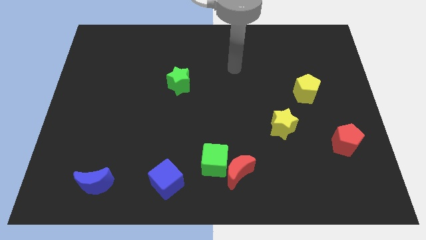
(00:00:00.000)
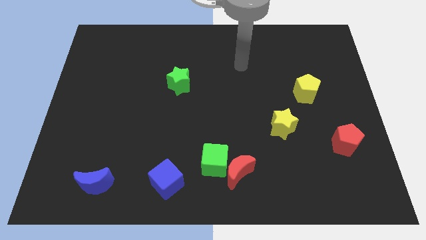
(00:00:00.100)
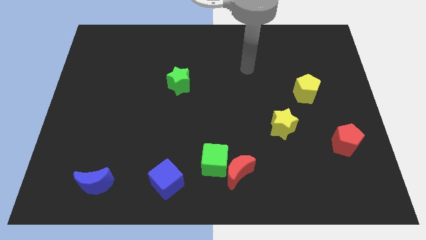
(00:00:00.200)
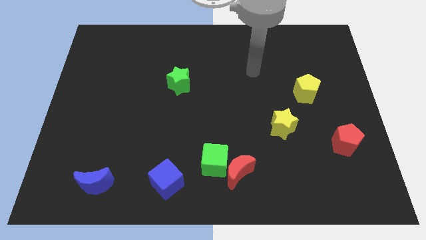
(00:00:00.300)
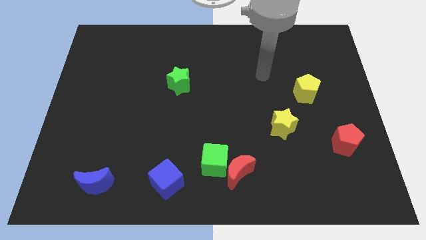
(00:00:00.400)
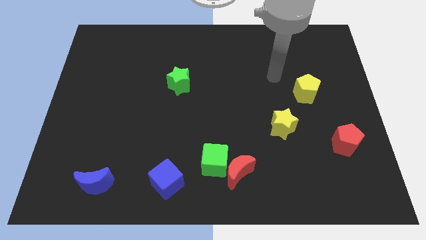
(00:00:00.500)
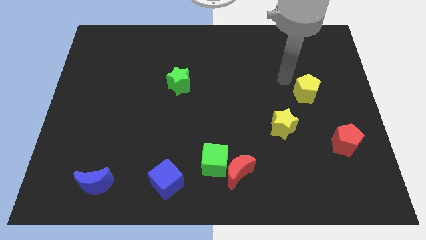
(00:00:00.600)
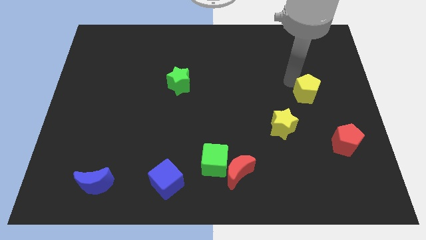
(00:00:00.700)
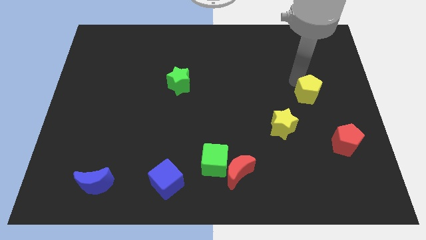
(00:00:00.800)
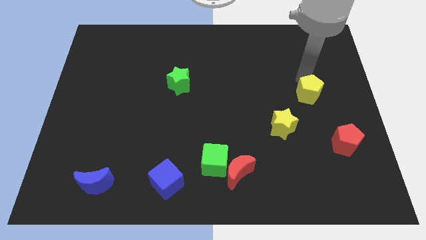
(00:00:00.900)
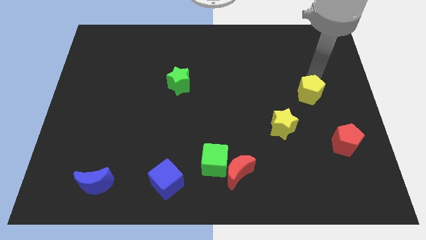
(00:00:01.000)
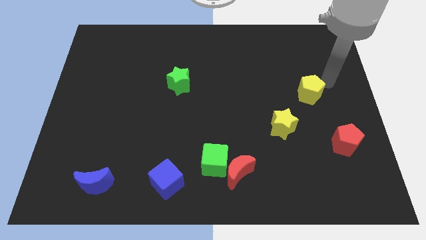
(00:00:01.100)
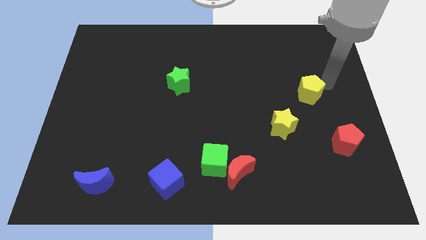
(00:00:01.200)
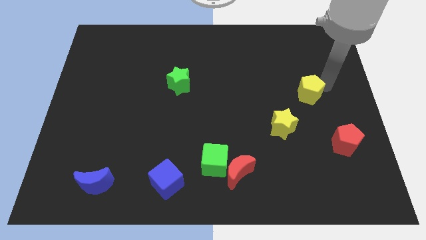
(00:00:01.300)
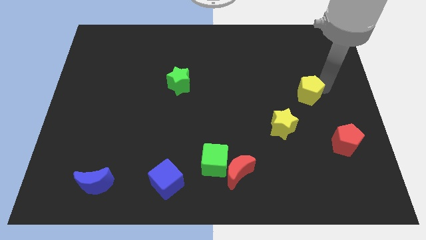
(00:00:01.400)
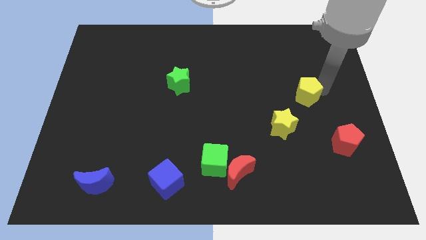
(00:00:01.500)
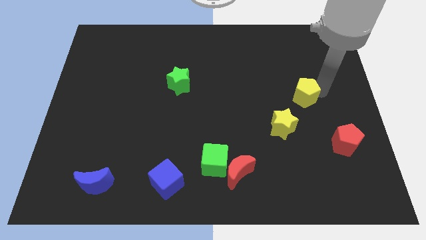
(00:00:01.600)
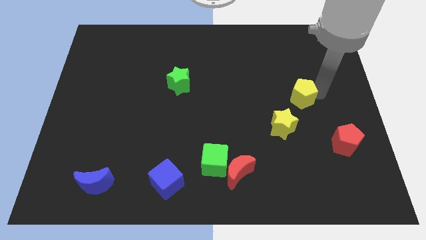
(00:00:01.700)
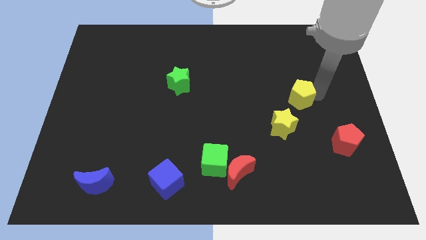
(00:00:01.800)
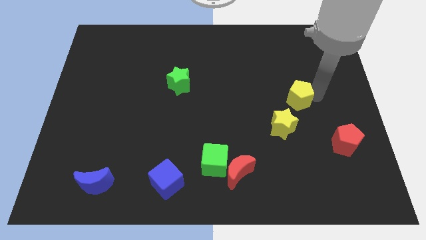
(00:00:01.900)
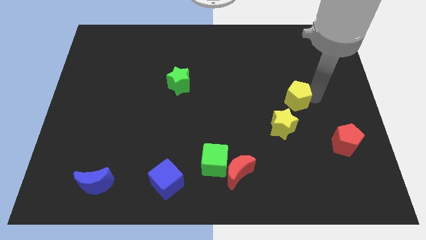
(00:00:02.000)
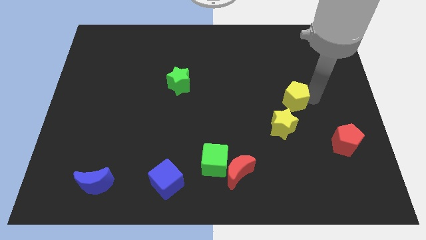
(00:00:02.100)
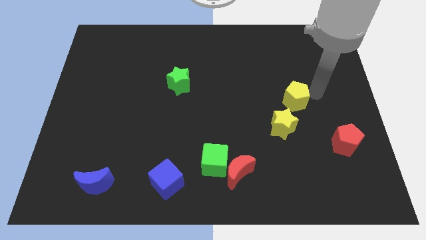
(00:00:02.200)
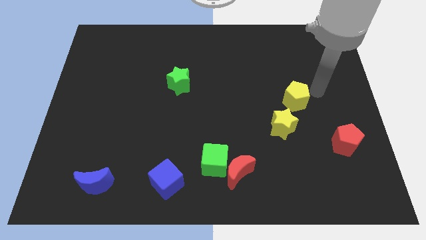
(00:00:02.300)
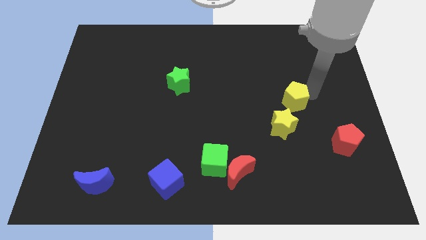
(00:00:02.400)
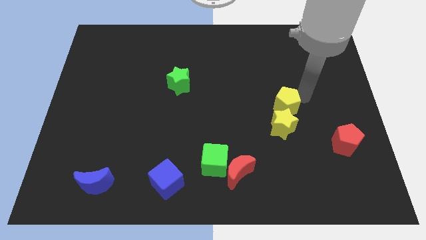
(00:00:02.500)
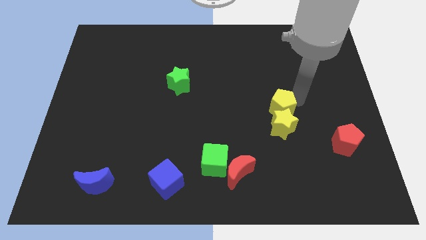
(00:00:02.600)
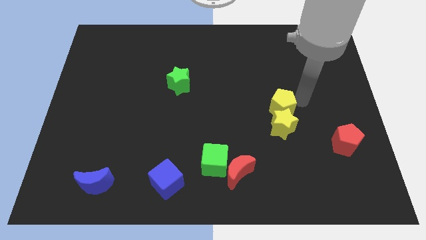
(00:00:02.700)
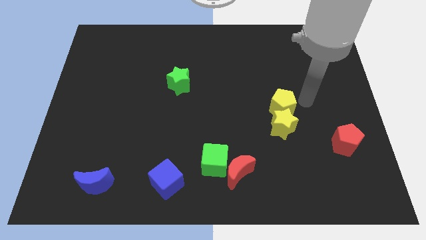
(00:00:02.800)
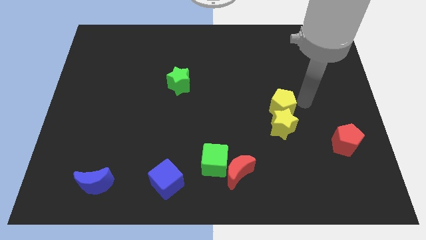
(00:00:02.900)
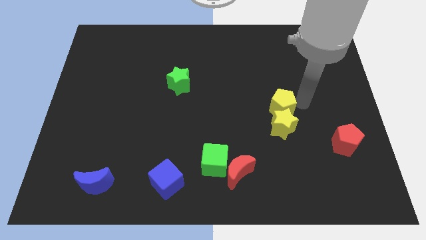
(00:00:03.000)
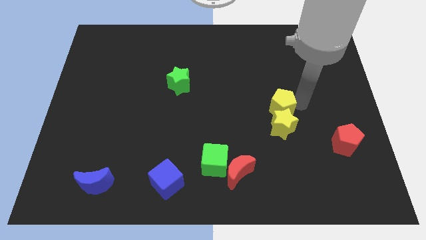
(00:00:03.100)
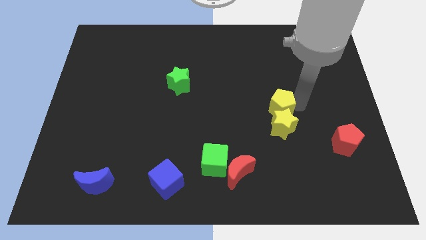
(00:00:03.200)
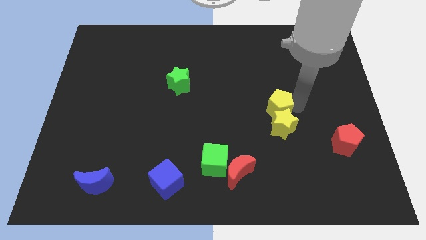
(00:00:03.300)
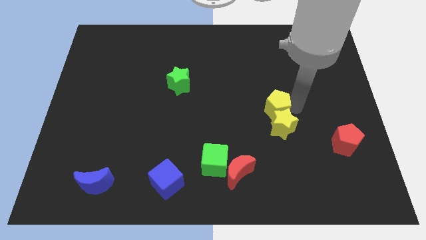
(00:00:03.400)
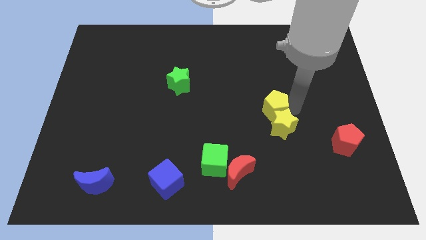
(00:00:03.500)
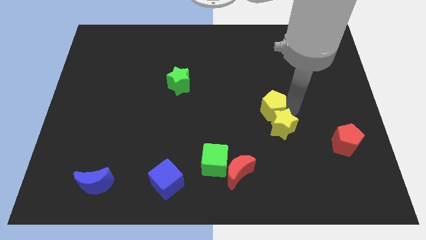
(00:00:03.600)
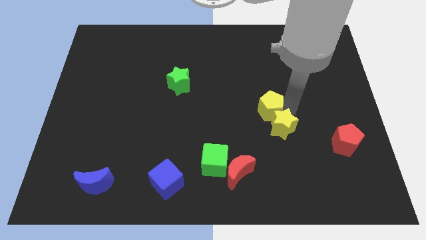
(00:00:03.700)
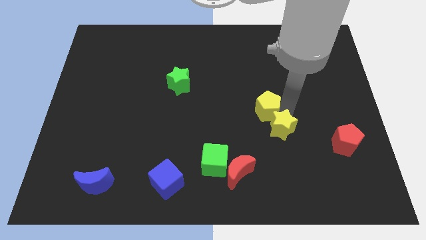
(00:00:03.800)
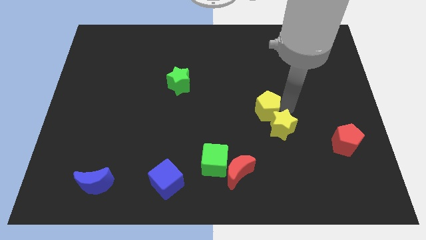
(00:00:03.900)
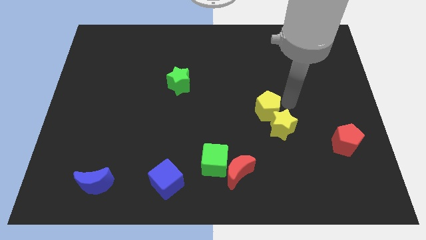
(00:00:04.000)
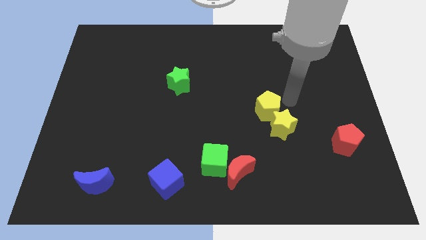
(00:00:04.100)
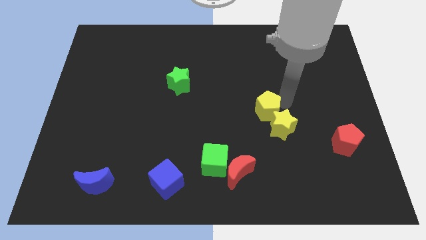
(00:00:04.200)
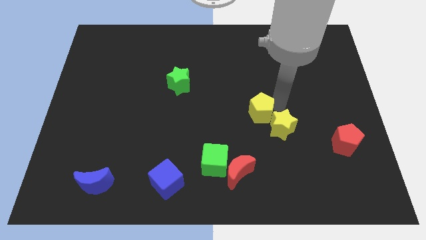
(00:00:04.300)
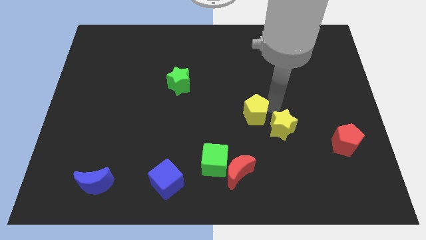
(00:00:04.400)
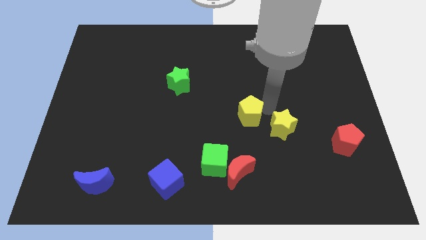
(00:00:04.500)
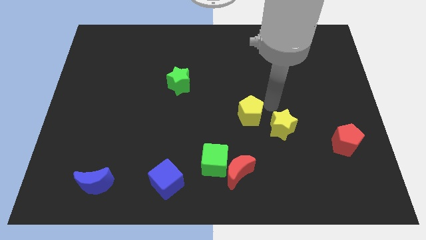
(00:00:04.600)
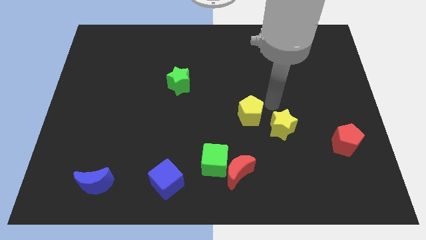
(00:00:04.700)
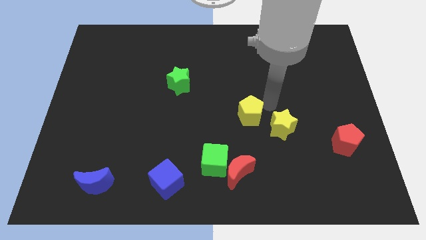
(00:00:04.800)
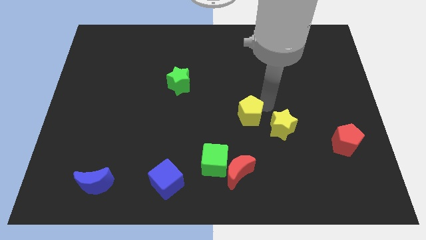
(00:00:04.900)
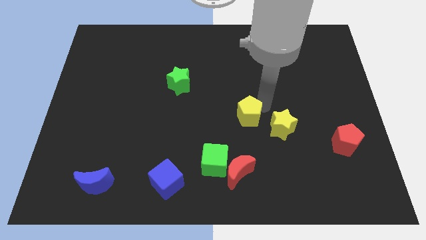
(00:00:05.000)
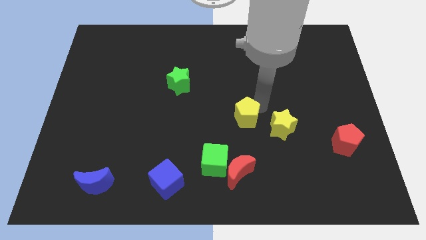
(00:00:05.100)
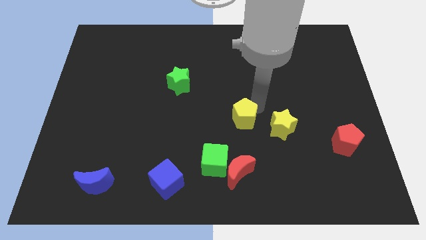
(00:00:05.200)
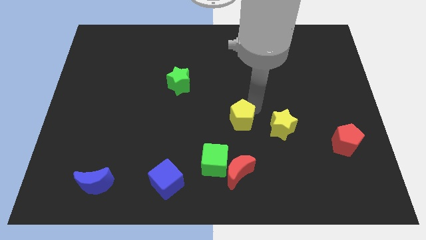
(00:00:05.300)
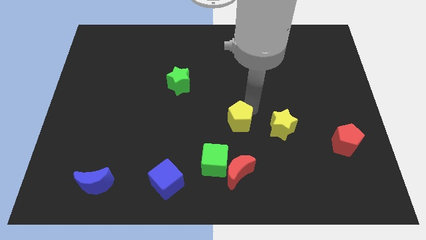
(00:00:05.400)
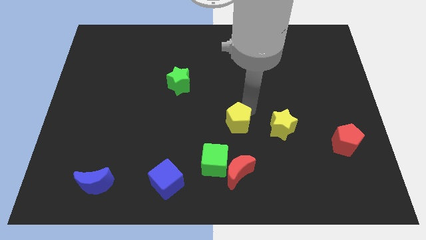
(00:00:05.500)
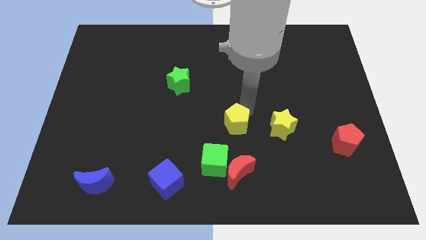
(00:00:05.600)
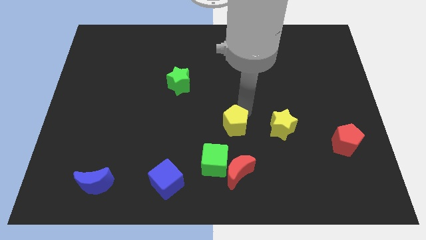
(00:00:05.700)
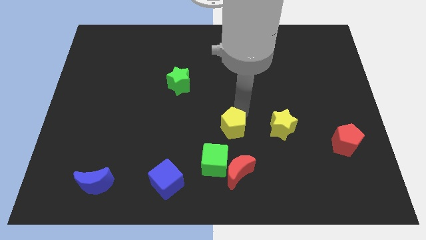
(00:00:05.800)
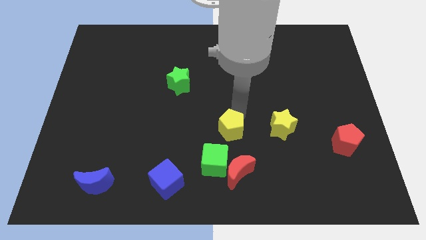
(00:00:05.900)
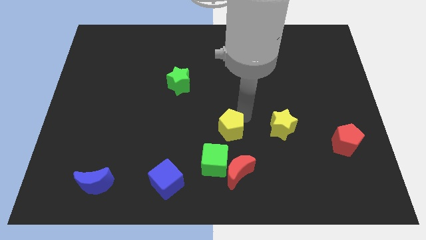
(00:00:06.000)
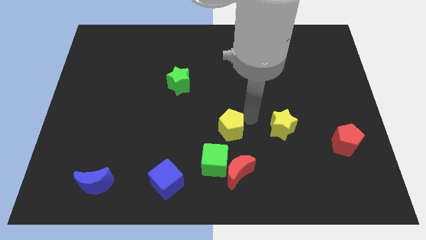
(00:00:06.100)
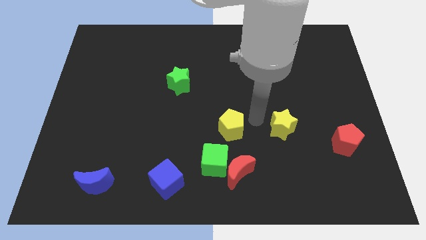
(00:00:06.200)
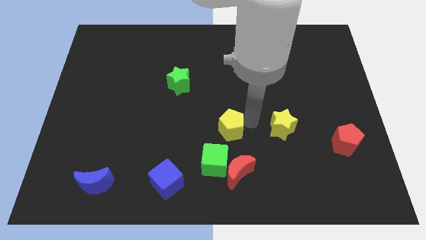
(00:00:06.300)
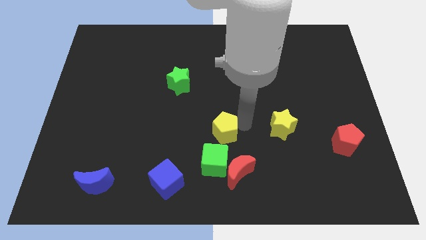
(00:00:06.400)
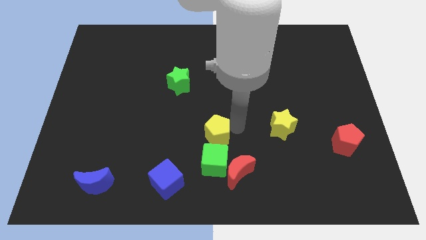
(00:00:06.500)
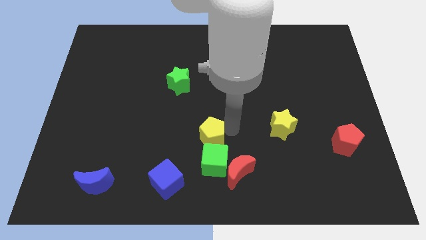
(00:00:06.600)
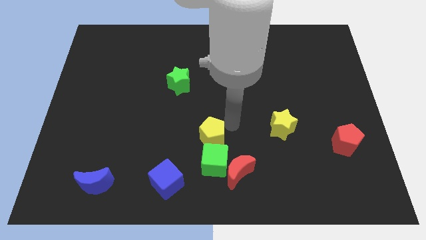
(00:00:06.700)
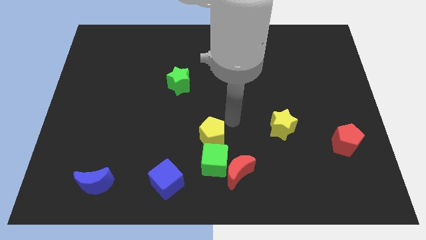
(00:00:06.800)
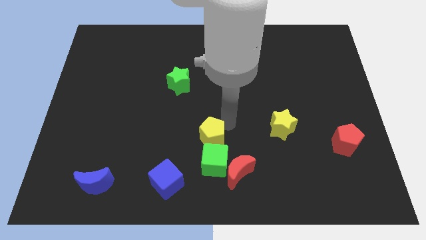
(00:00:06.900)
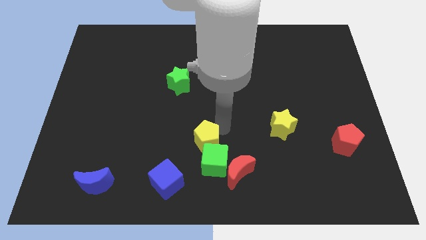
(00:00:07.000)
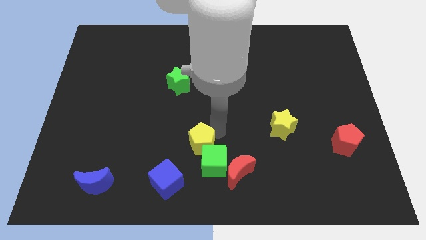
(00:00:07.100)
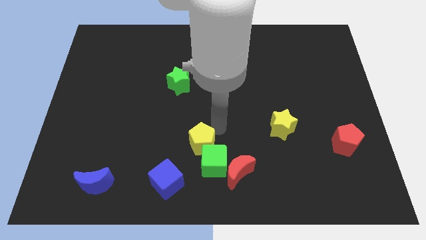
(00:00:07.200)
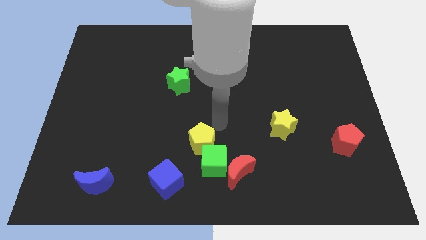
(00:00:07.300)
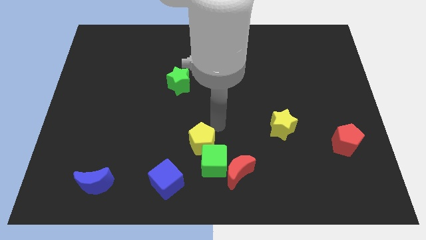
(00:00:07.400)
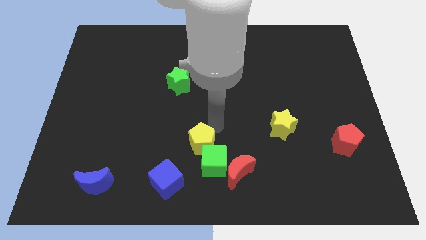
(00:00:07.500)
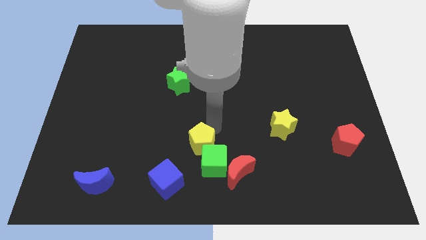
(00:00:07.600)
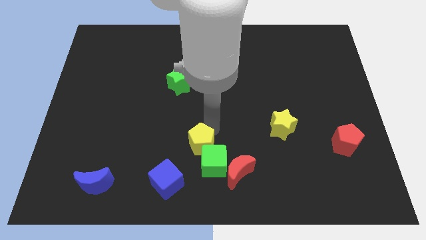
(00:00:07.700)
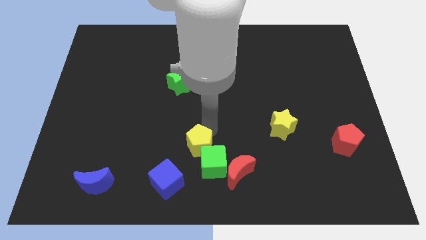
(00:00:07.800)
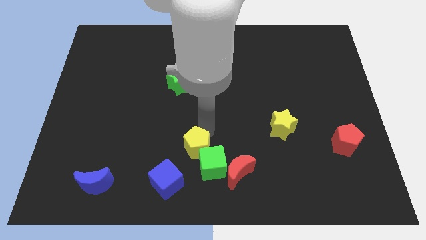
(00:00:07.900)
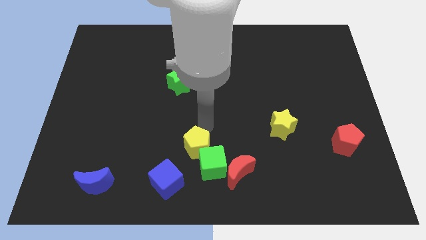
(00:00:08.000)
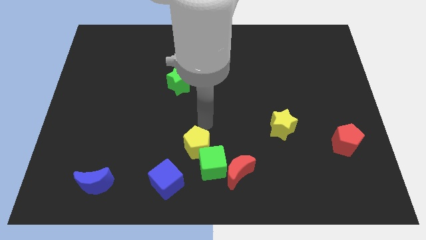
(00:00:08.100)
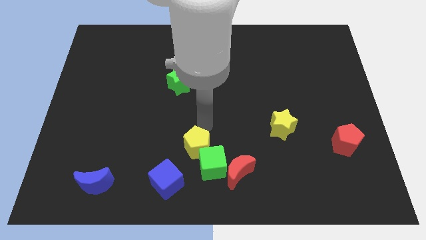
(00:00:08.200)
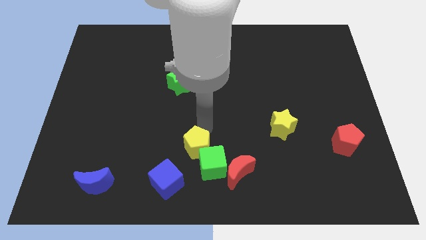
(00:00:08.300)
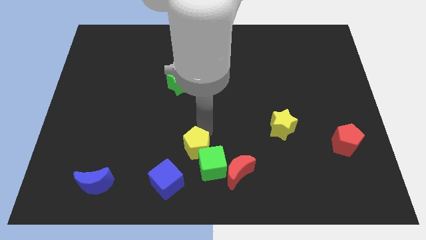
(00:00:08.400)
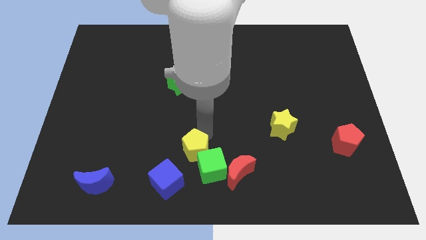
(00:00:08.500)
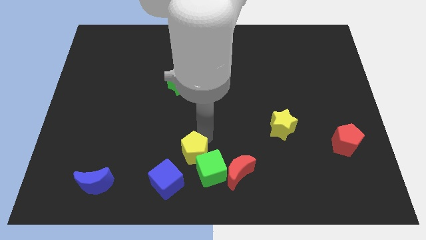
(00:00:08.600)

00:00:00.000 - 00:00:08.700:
move the yellow pentagon left of the red moon
